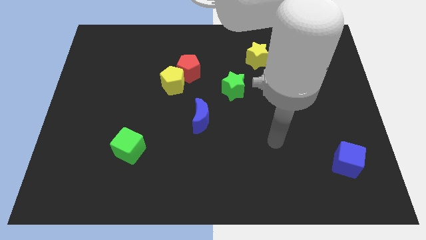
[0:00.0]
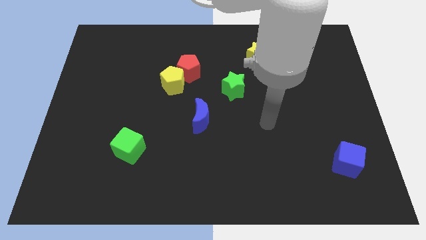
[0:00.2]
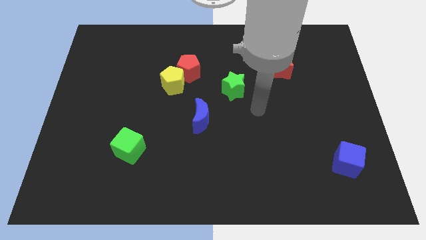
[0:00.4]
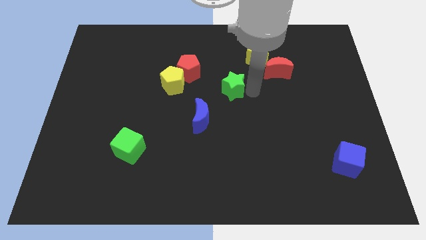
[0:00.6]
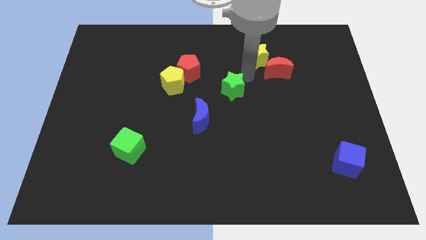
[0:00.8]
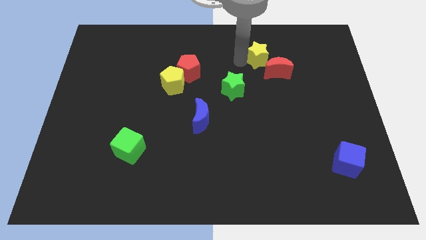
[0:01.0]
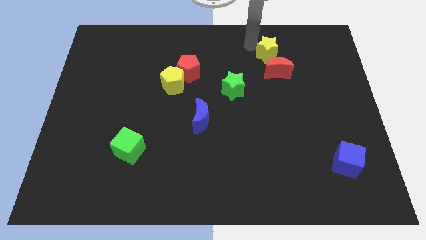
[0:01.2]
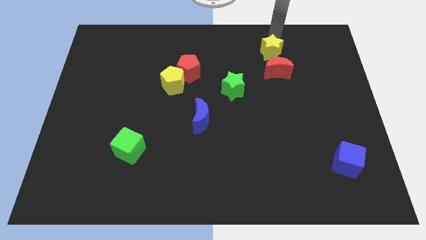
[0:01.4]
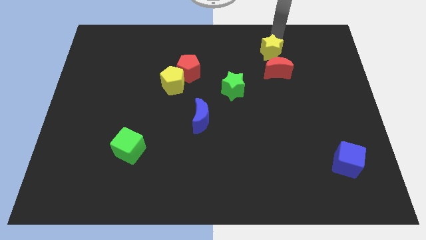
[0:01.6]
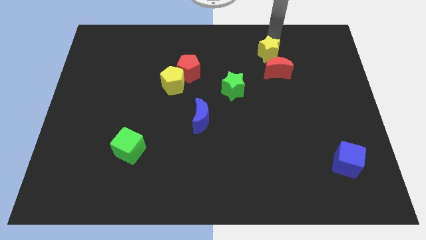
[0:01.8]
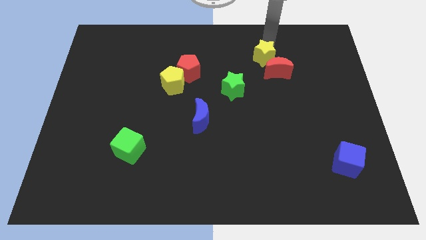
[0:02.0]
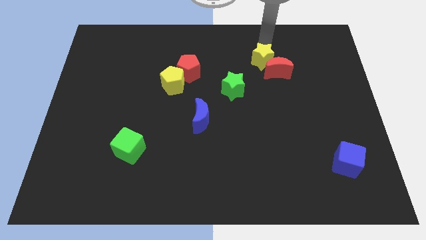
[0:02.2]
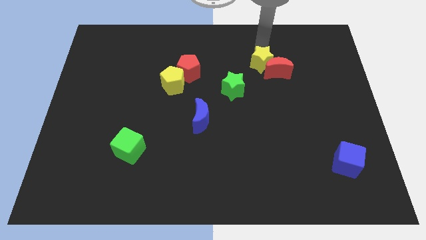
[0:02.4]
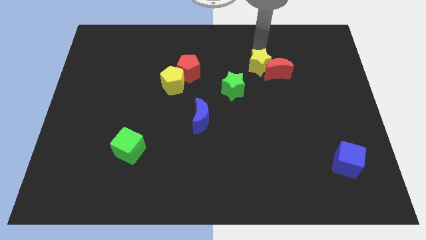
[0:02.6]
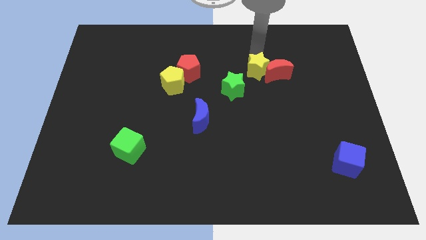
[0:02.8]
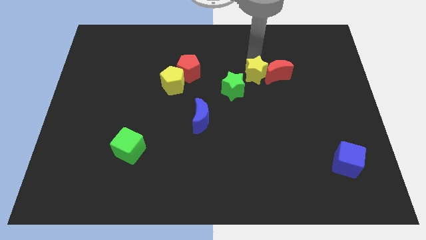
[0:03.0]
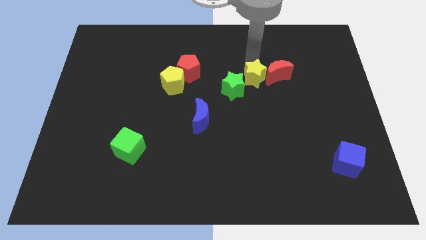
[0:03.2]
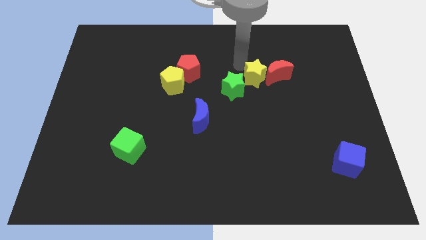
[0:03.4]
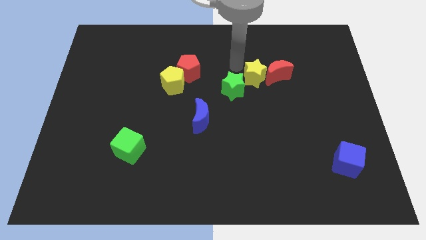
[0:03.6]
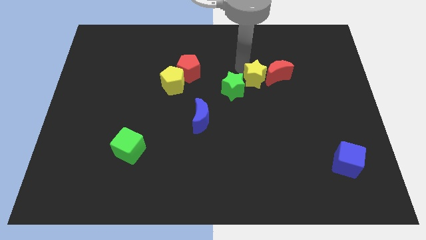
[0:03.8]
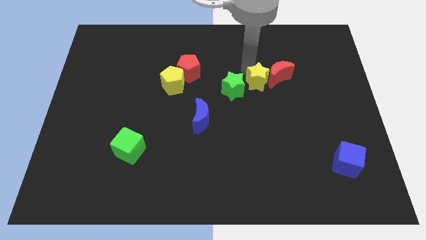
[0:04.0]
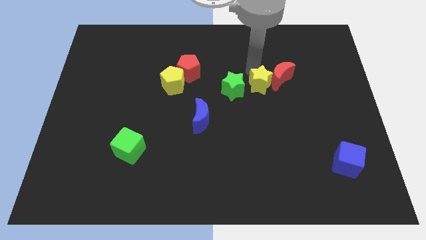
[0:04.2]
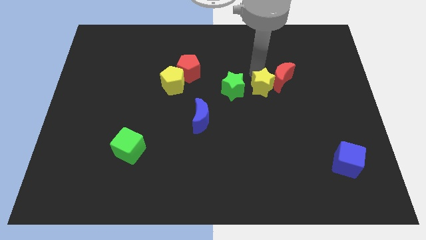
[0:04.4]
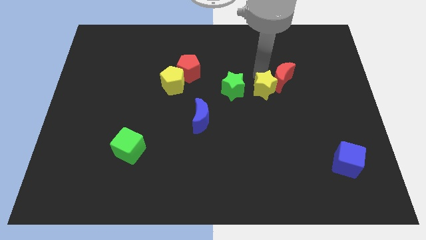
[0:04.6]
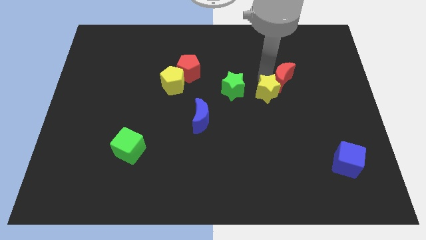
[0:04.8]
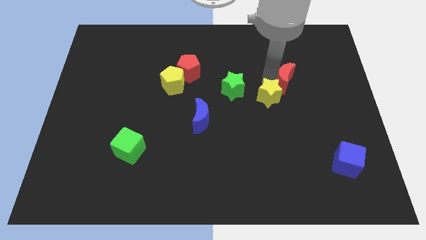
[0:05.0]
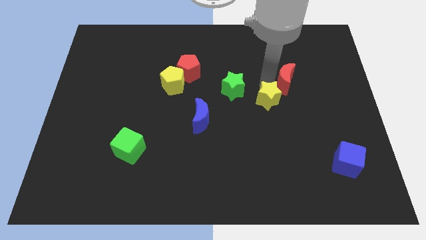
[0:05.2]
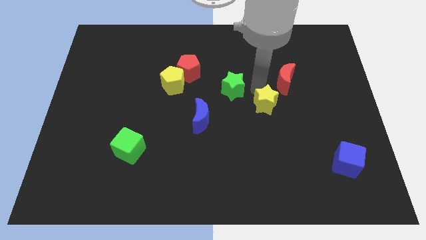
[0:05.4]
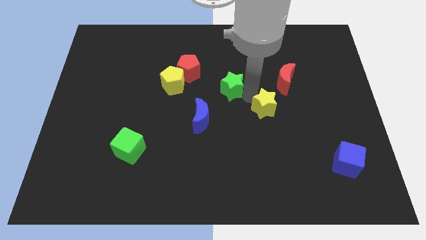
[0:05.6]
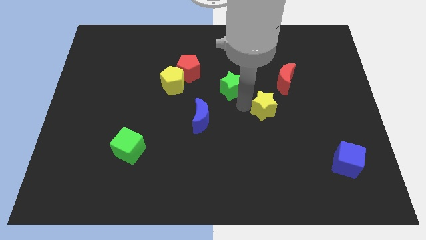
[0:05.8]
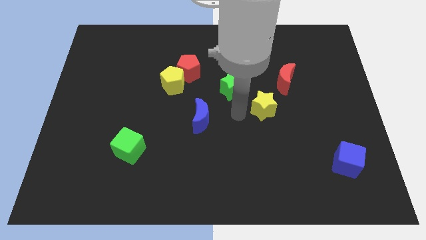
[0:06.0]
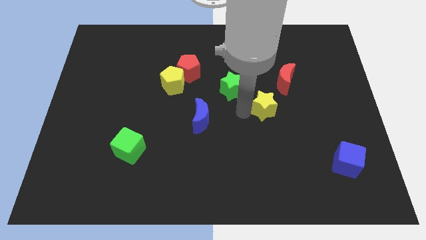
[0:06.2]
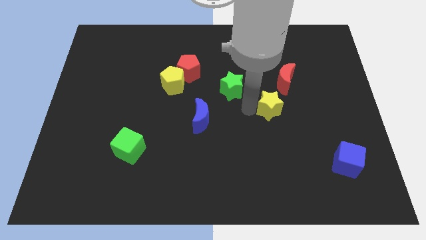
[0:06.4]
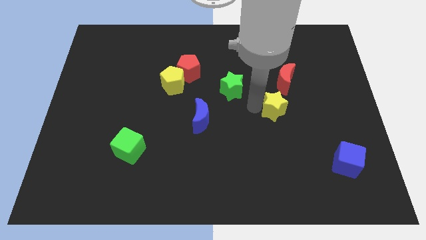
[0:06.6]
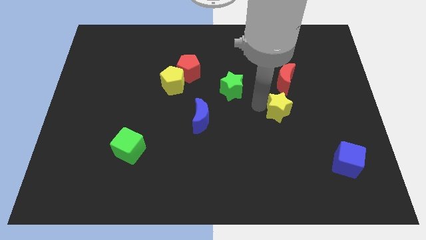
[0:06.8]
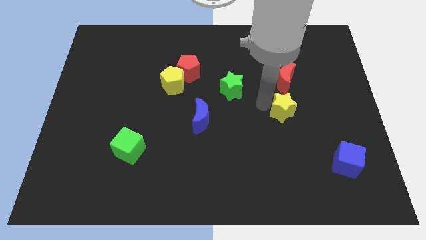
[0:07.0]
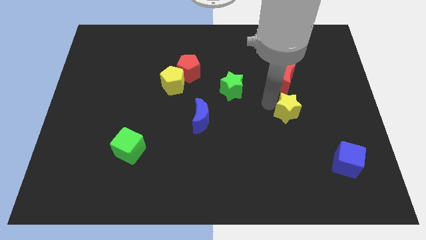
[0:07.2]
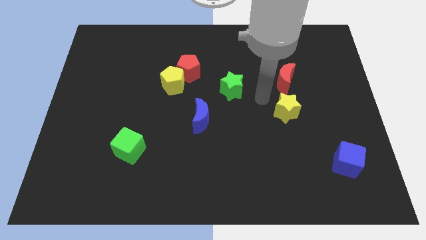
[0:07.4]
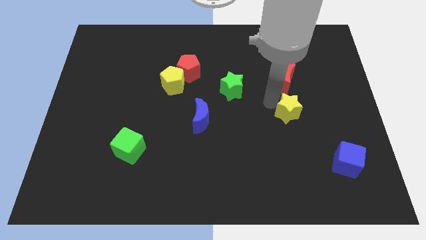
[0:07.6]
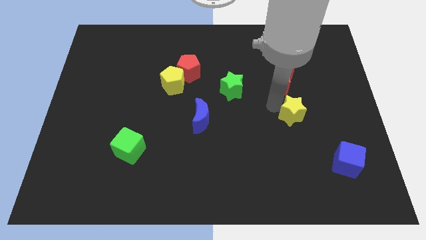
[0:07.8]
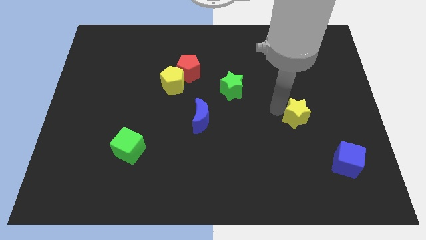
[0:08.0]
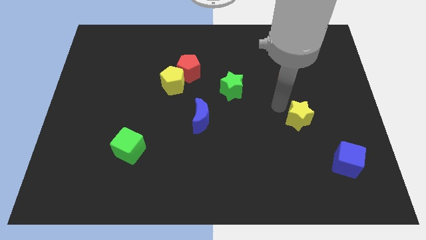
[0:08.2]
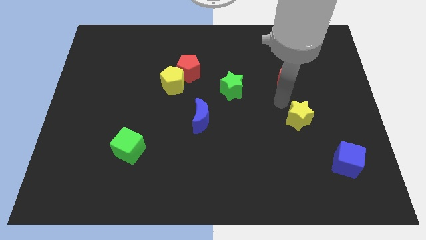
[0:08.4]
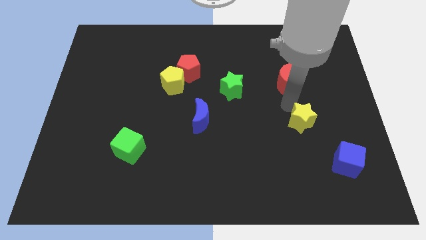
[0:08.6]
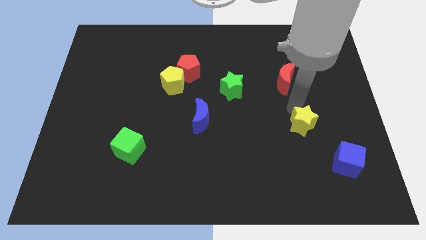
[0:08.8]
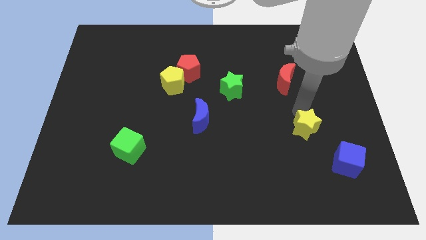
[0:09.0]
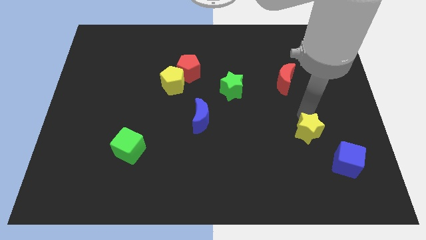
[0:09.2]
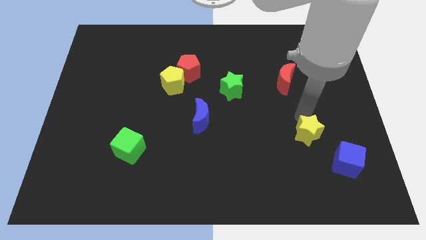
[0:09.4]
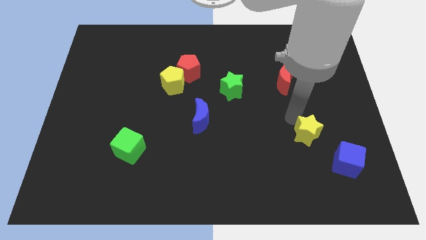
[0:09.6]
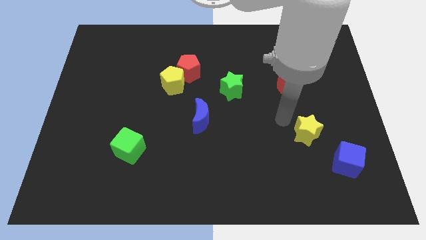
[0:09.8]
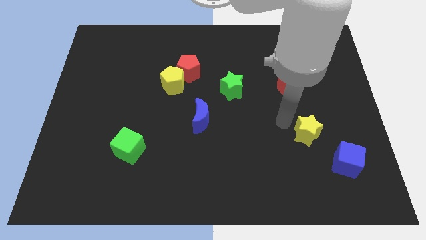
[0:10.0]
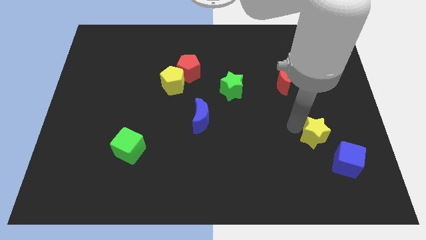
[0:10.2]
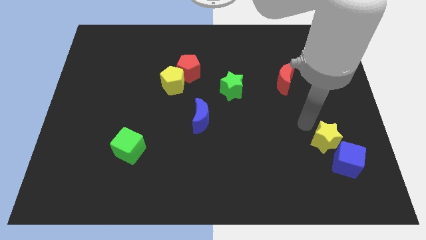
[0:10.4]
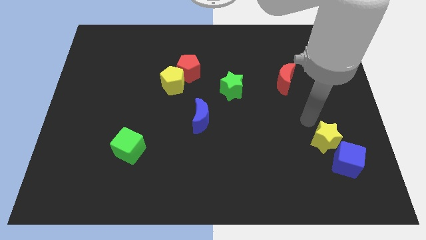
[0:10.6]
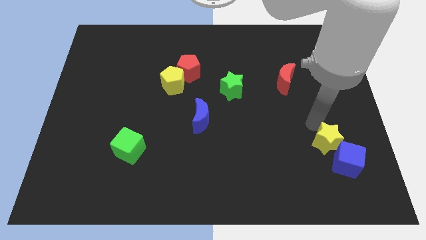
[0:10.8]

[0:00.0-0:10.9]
push the yellow star close to the blue cube
